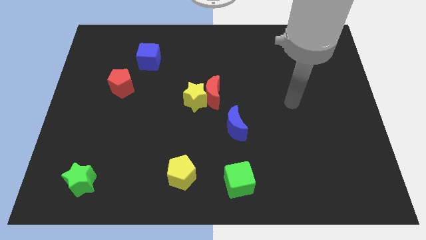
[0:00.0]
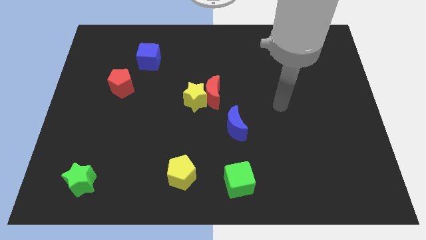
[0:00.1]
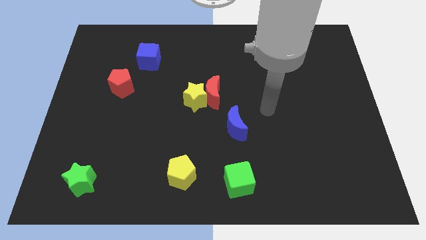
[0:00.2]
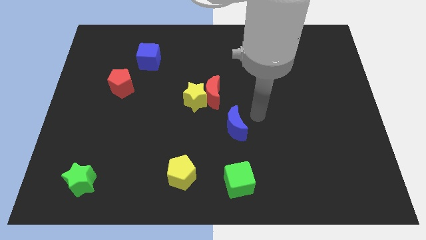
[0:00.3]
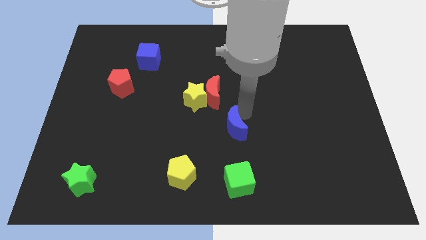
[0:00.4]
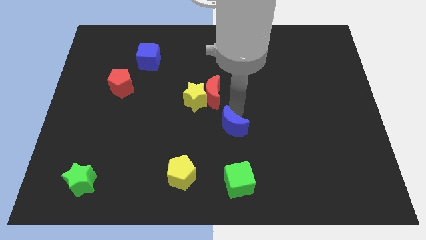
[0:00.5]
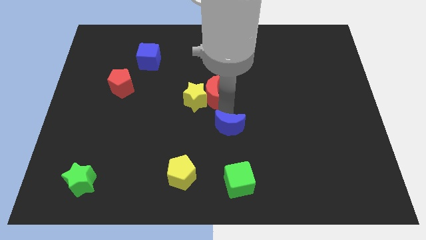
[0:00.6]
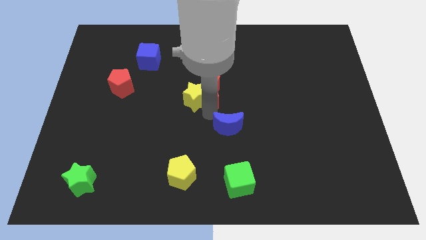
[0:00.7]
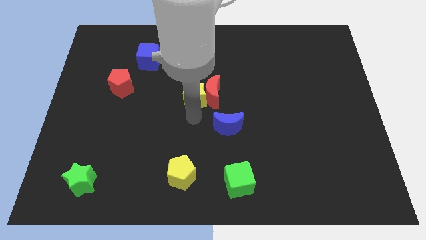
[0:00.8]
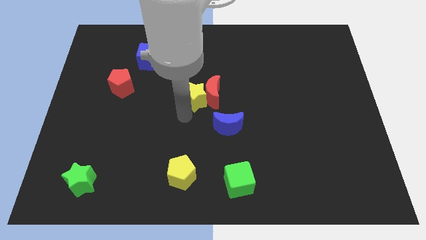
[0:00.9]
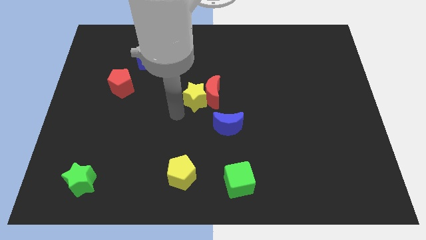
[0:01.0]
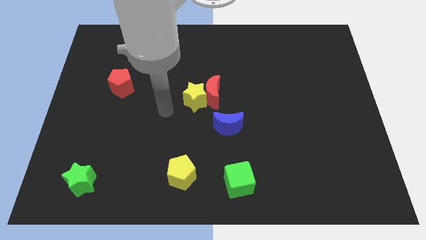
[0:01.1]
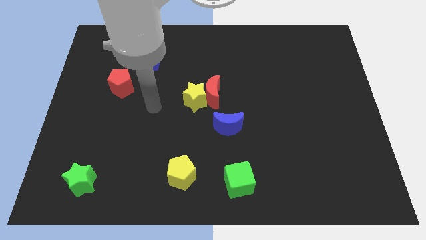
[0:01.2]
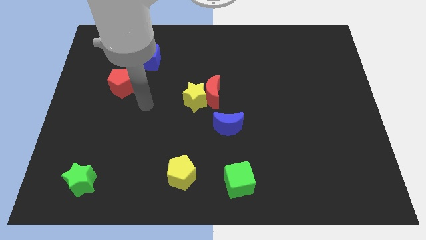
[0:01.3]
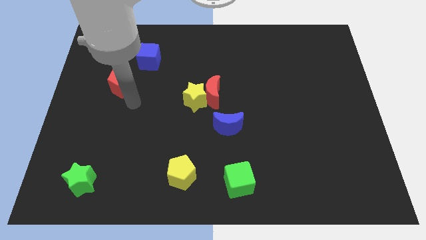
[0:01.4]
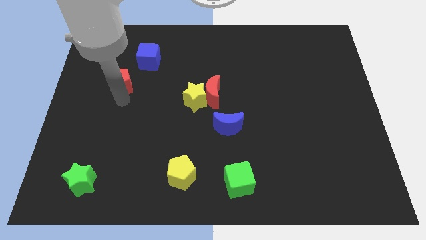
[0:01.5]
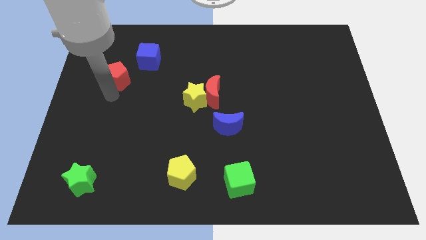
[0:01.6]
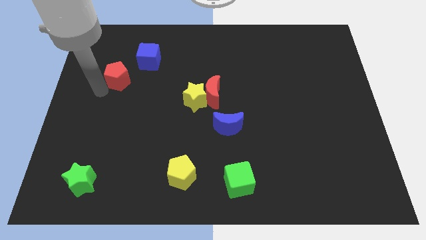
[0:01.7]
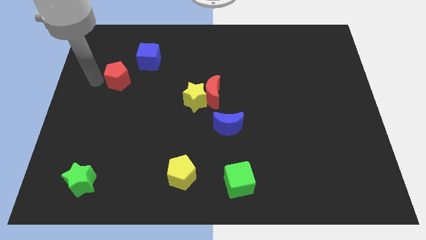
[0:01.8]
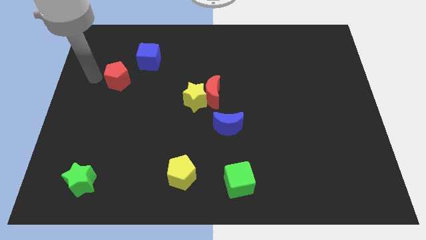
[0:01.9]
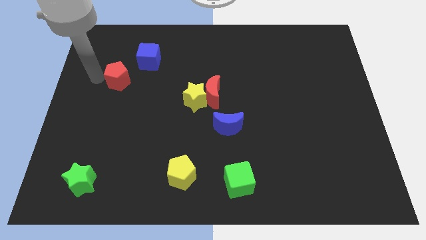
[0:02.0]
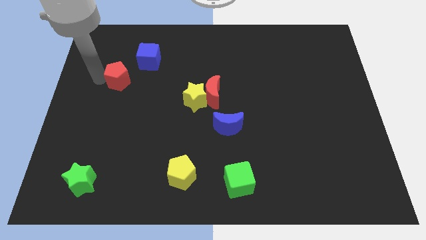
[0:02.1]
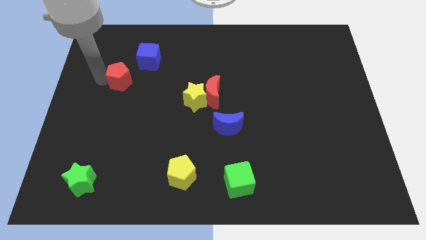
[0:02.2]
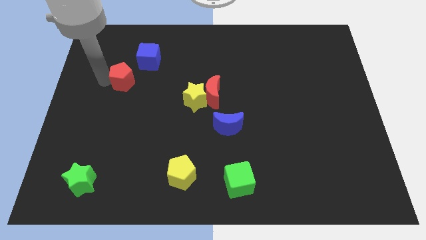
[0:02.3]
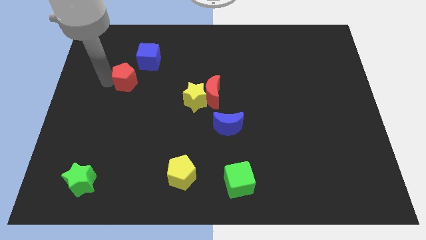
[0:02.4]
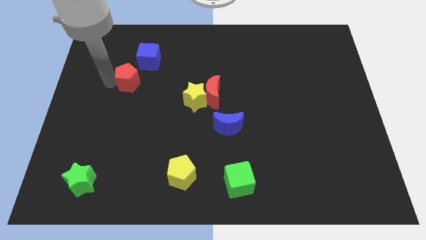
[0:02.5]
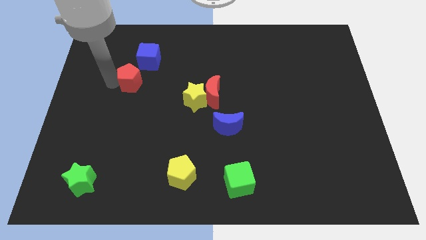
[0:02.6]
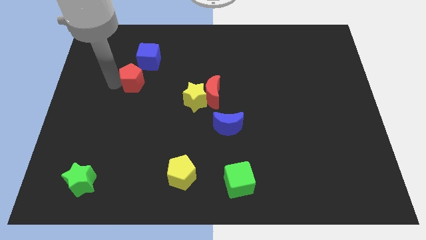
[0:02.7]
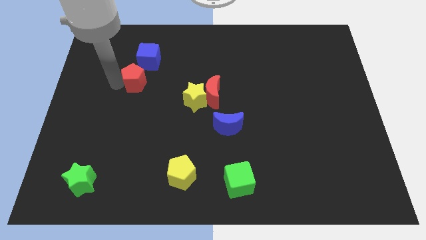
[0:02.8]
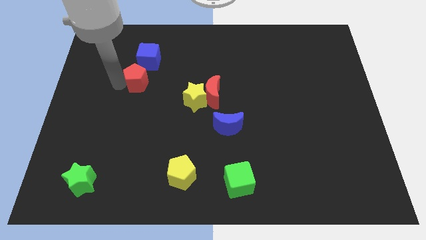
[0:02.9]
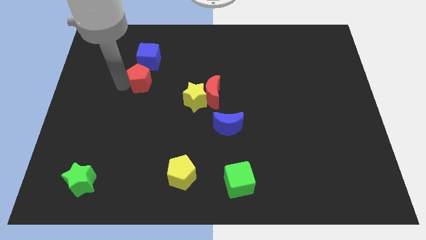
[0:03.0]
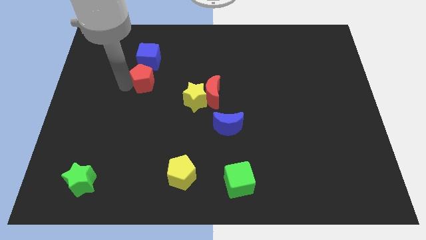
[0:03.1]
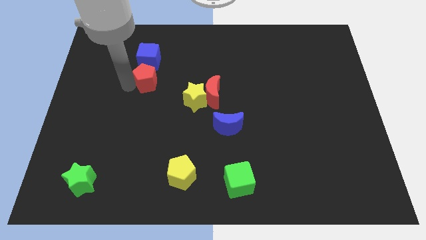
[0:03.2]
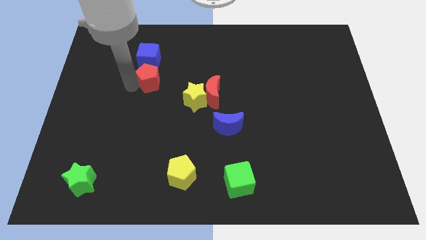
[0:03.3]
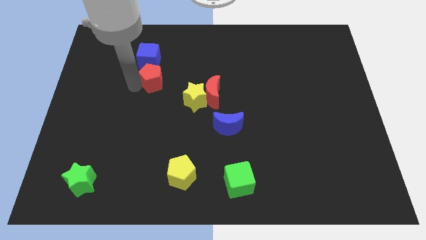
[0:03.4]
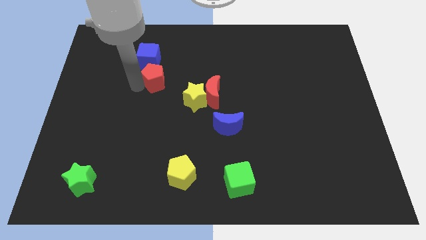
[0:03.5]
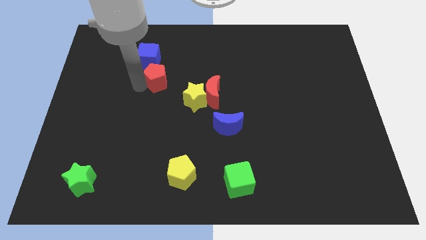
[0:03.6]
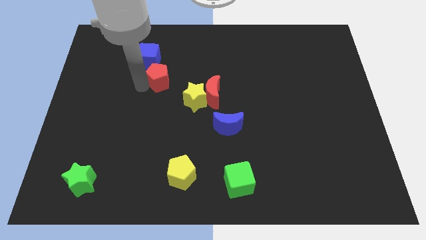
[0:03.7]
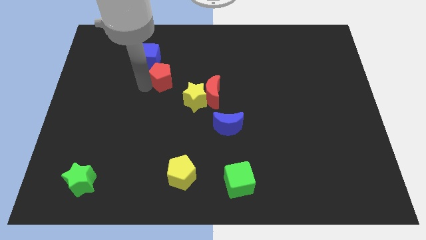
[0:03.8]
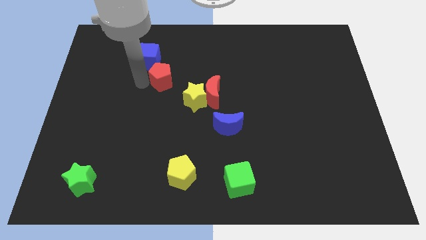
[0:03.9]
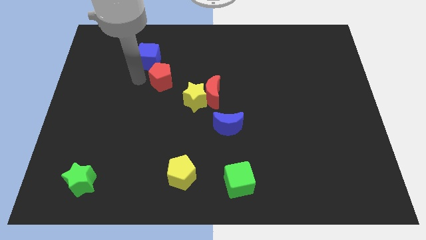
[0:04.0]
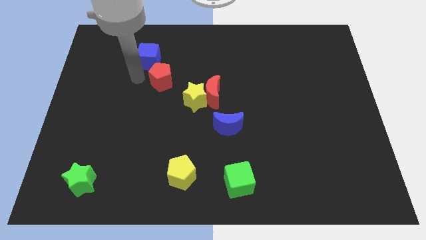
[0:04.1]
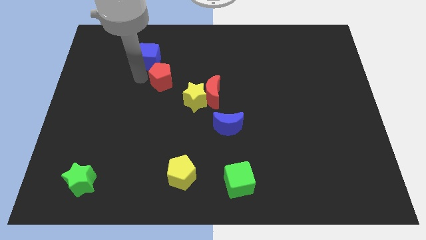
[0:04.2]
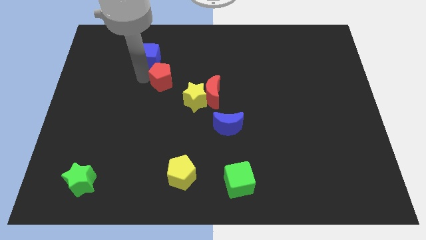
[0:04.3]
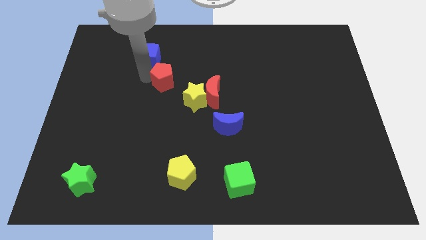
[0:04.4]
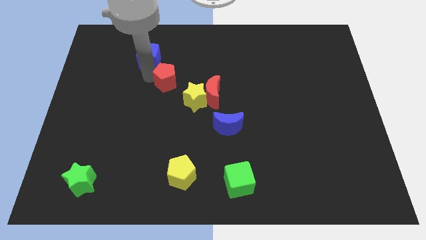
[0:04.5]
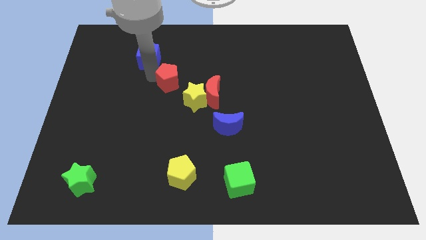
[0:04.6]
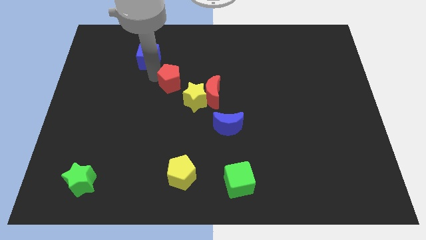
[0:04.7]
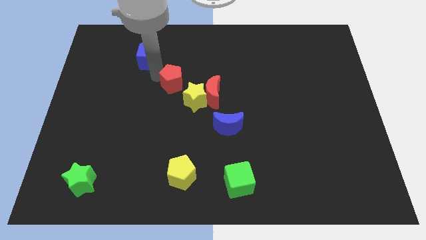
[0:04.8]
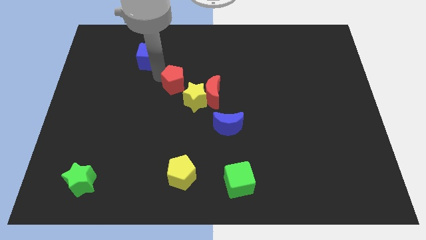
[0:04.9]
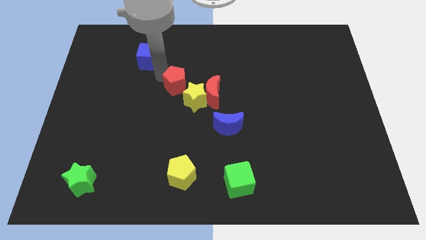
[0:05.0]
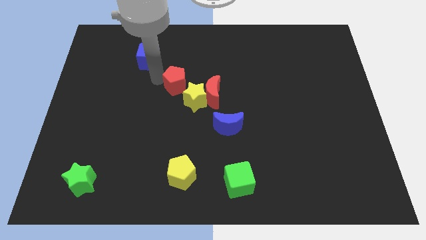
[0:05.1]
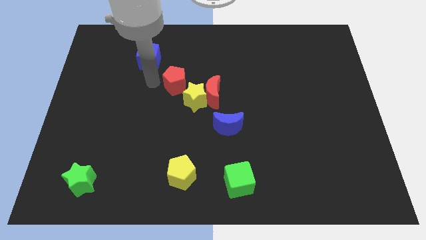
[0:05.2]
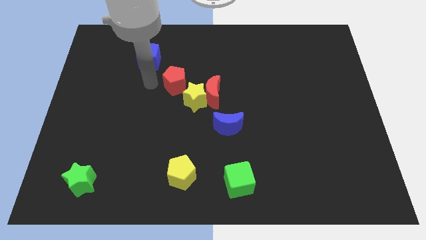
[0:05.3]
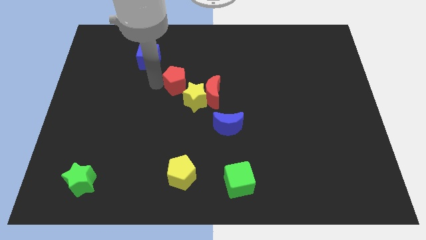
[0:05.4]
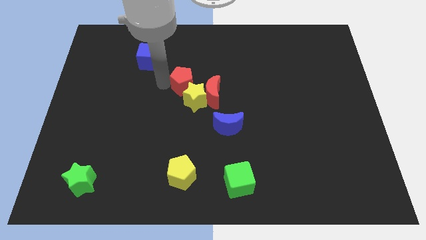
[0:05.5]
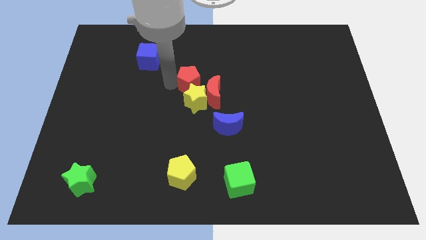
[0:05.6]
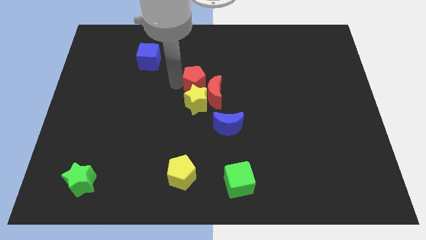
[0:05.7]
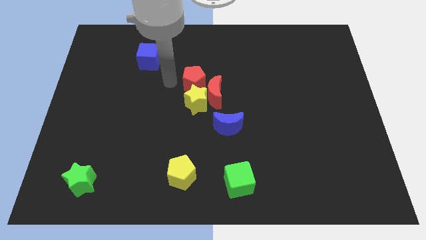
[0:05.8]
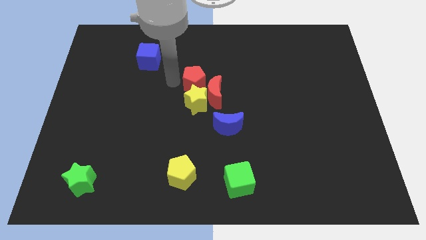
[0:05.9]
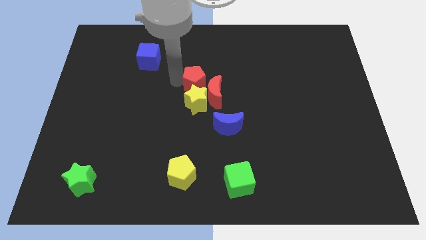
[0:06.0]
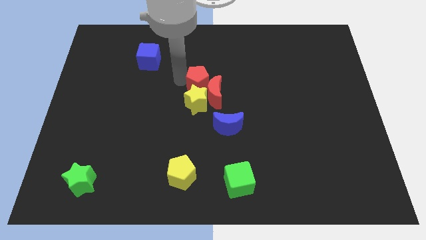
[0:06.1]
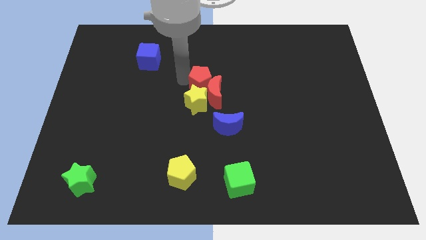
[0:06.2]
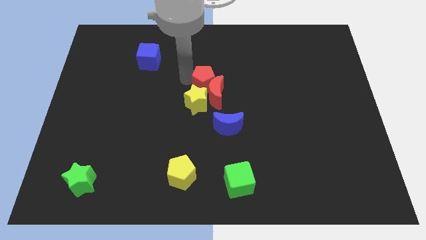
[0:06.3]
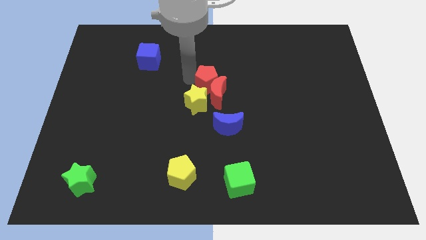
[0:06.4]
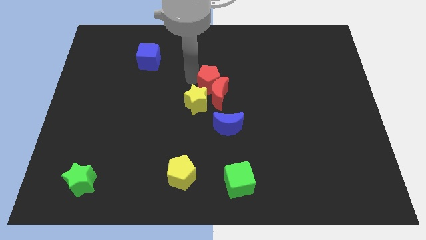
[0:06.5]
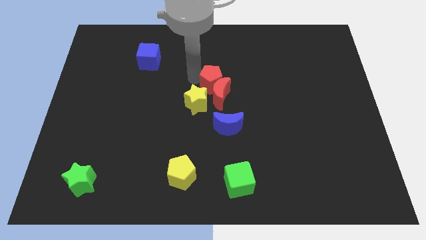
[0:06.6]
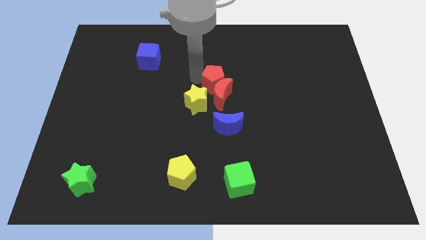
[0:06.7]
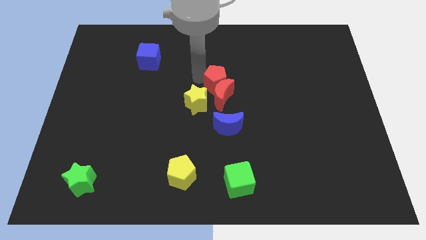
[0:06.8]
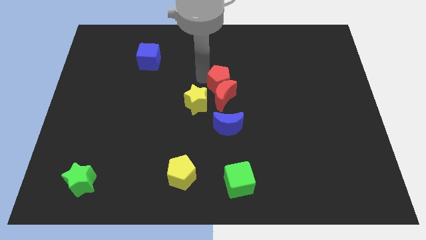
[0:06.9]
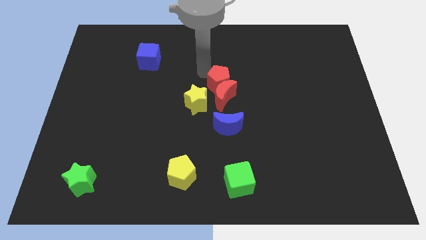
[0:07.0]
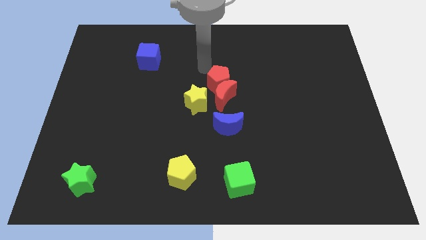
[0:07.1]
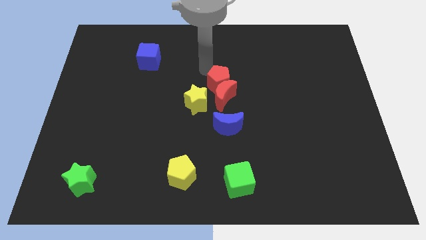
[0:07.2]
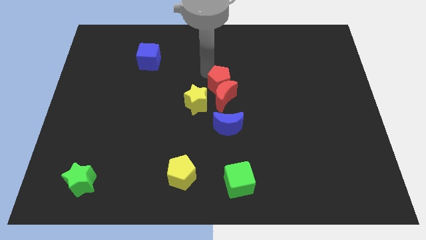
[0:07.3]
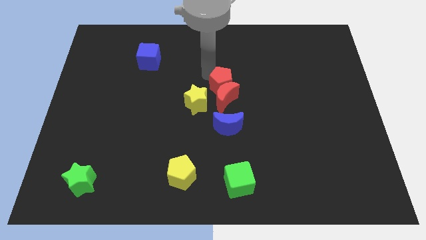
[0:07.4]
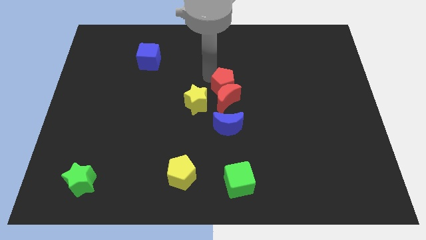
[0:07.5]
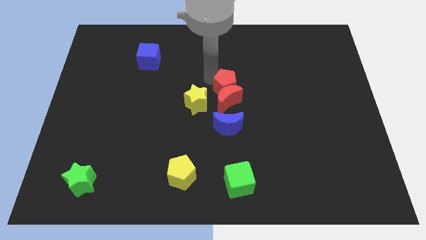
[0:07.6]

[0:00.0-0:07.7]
push the red pentagon just right of the yellow star
